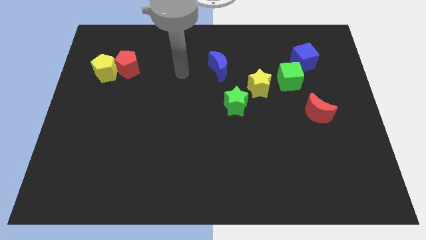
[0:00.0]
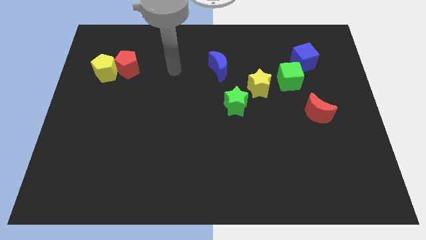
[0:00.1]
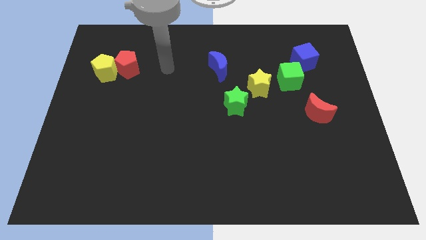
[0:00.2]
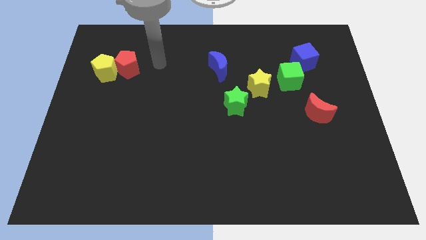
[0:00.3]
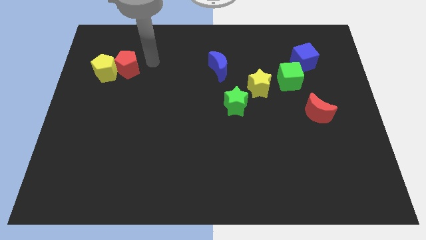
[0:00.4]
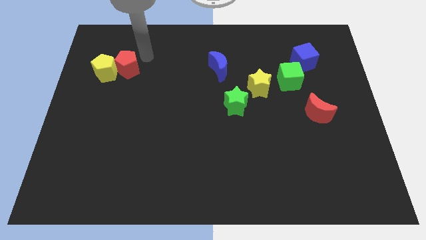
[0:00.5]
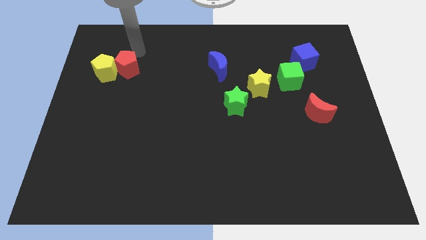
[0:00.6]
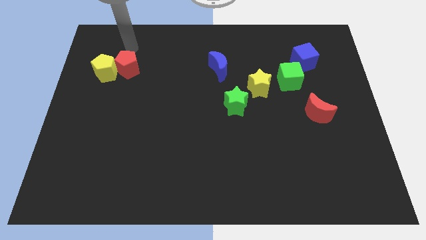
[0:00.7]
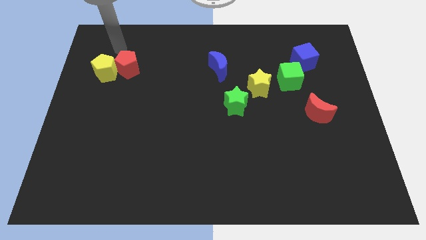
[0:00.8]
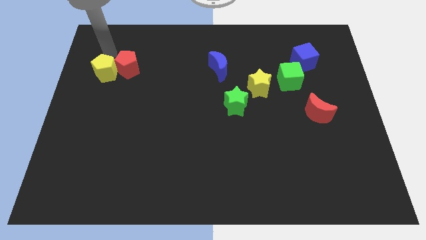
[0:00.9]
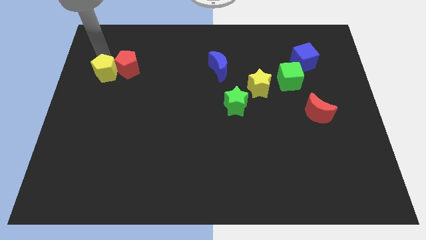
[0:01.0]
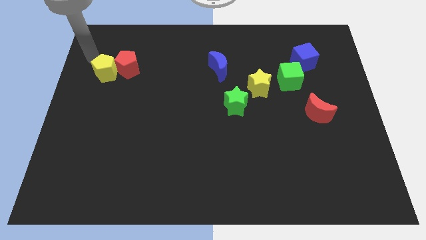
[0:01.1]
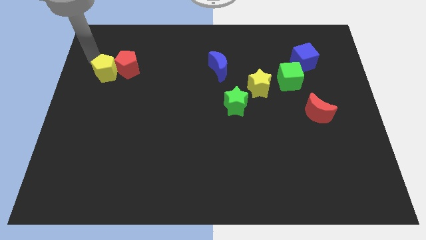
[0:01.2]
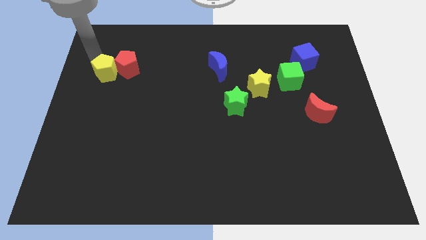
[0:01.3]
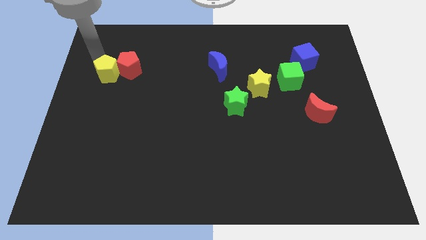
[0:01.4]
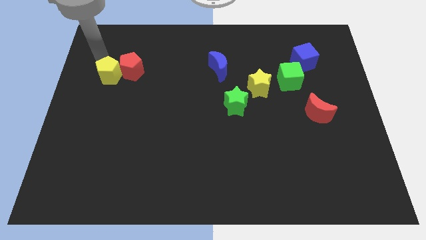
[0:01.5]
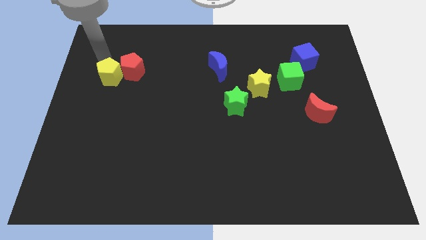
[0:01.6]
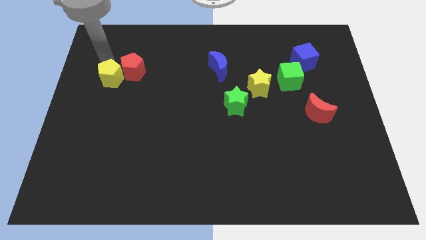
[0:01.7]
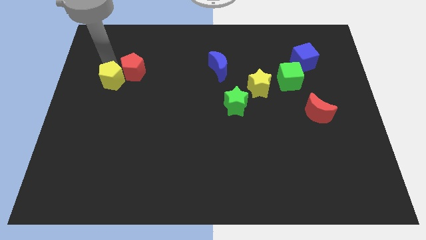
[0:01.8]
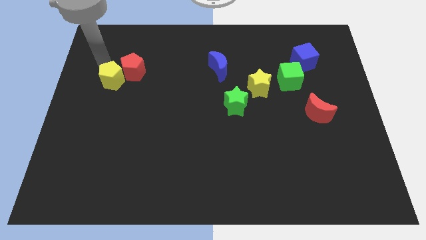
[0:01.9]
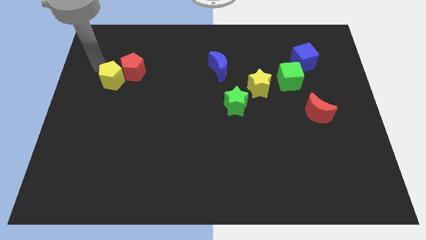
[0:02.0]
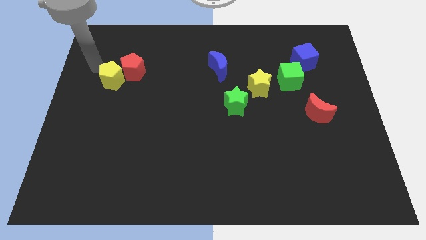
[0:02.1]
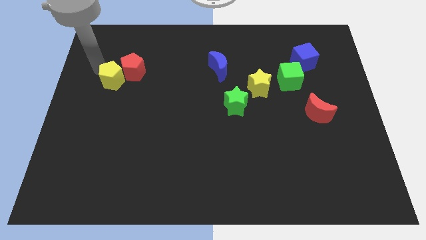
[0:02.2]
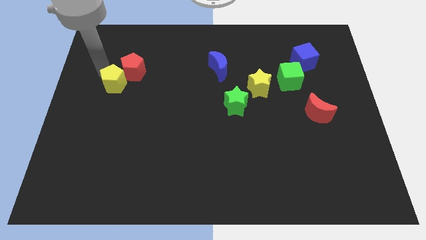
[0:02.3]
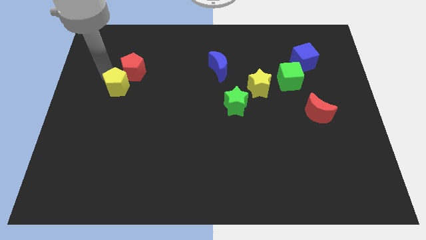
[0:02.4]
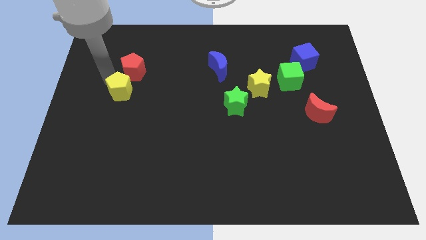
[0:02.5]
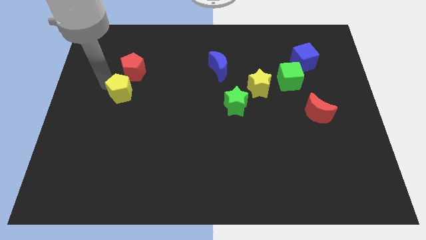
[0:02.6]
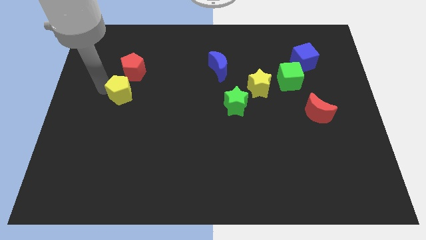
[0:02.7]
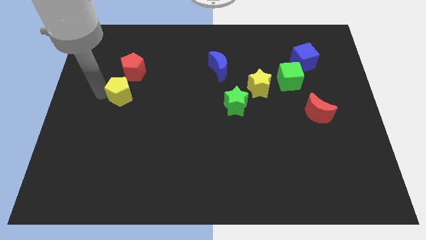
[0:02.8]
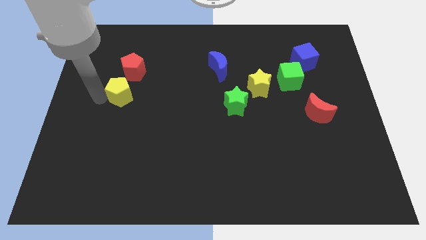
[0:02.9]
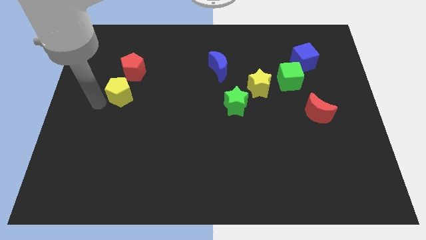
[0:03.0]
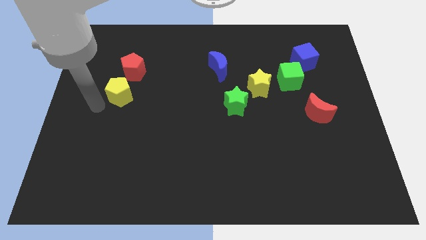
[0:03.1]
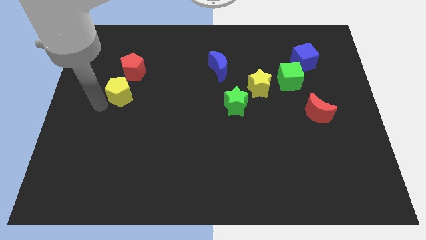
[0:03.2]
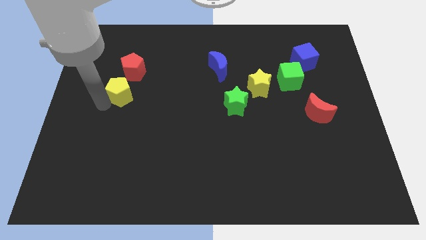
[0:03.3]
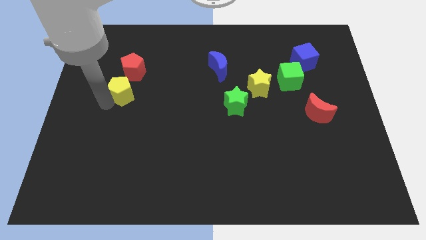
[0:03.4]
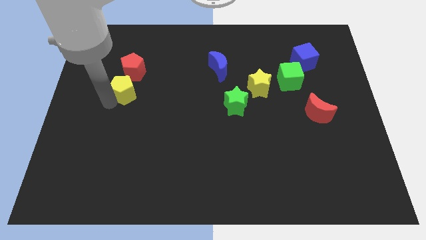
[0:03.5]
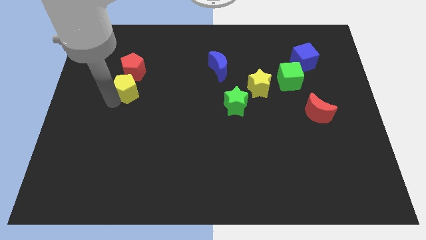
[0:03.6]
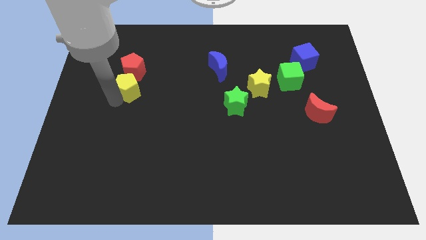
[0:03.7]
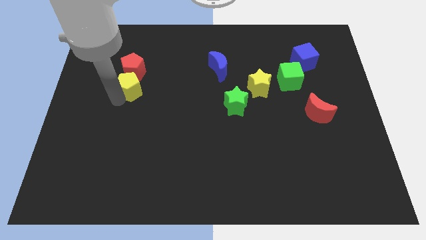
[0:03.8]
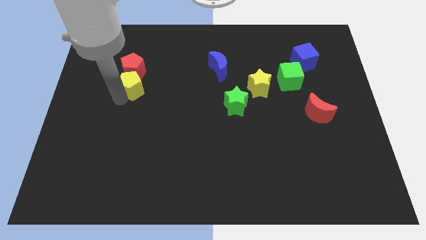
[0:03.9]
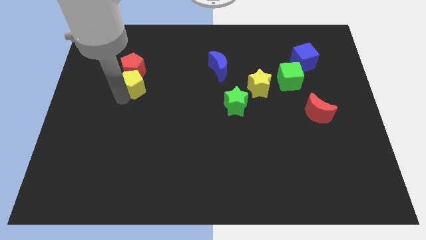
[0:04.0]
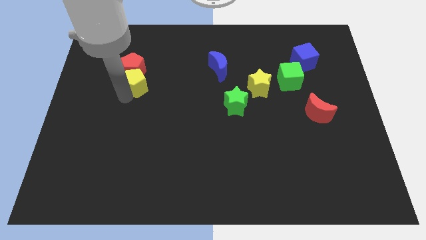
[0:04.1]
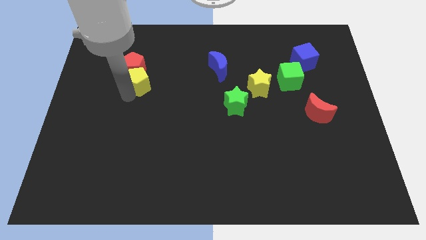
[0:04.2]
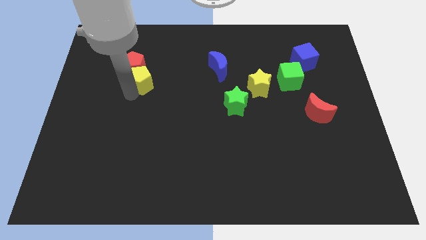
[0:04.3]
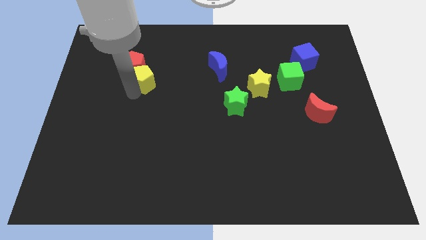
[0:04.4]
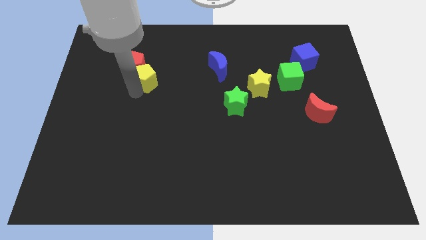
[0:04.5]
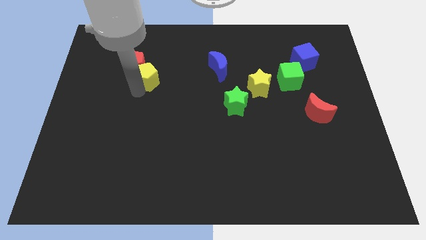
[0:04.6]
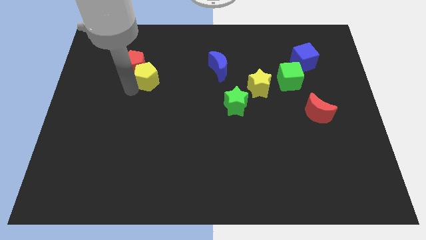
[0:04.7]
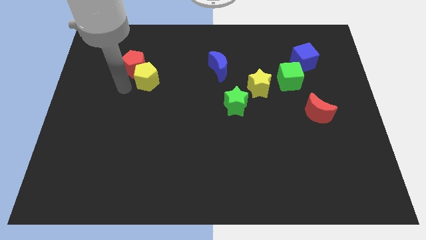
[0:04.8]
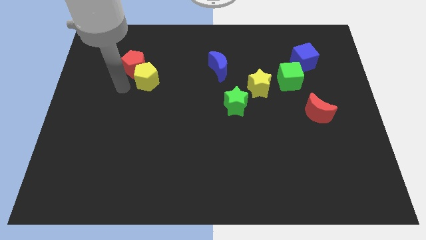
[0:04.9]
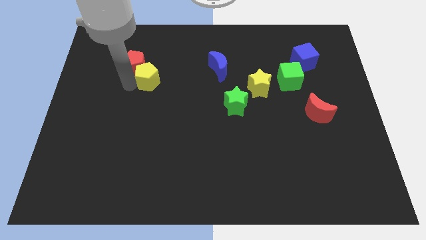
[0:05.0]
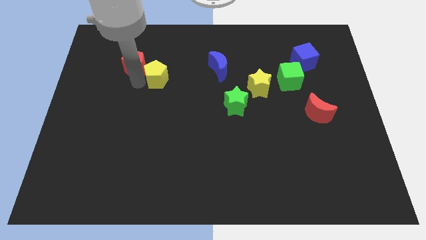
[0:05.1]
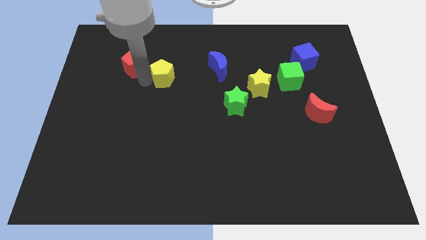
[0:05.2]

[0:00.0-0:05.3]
slide the yellow pentagon left of the blue moon

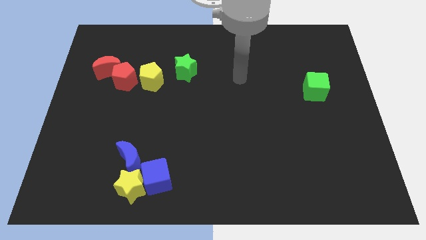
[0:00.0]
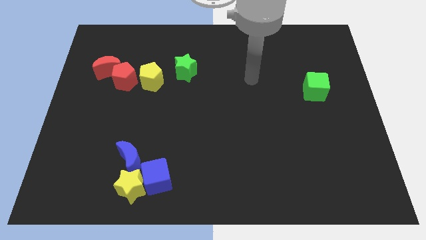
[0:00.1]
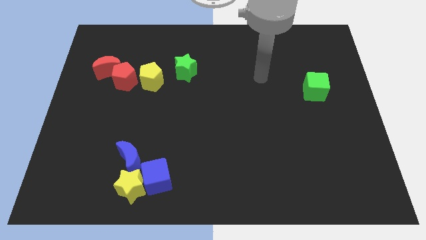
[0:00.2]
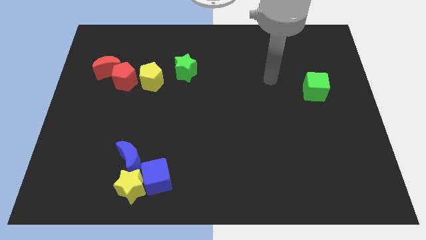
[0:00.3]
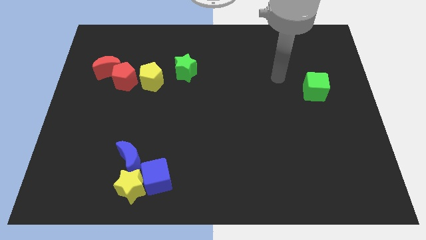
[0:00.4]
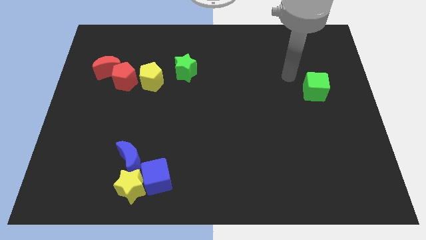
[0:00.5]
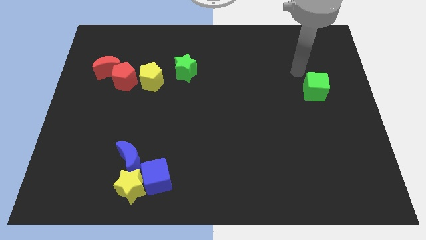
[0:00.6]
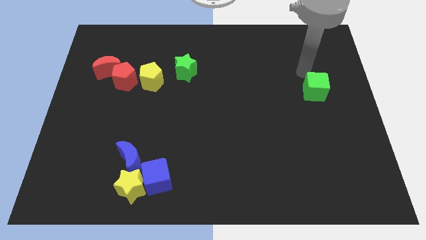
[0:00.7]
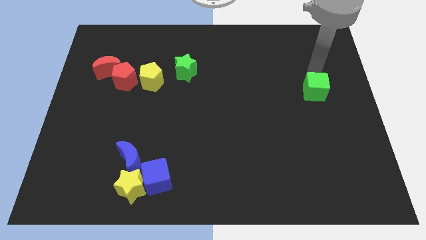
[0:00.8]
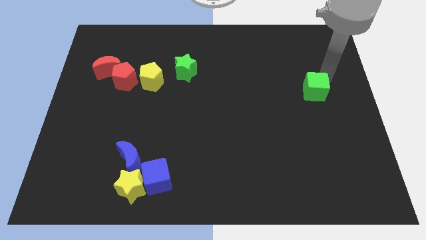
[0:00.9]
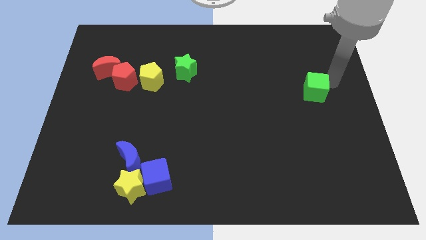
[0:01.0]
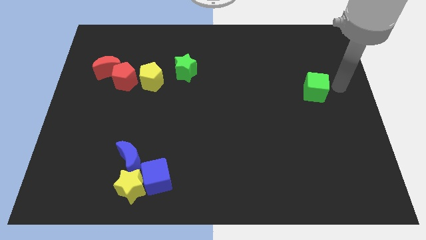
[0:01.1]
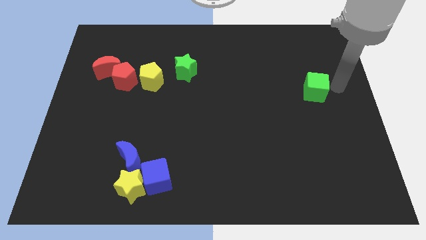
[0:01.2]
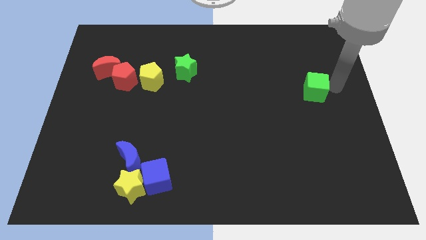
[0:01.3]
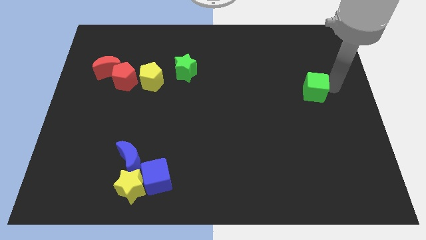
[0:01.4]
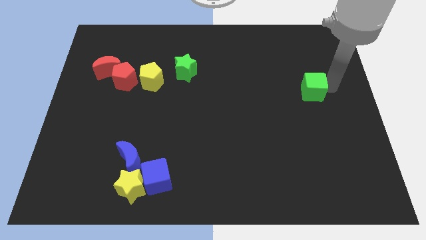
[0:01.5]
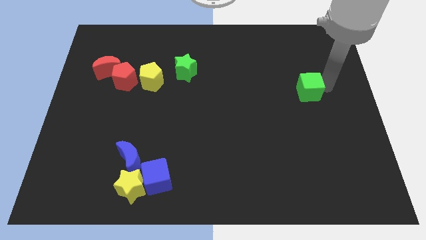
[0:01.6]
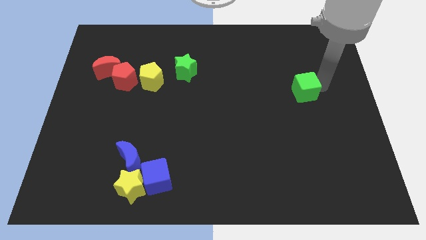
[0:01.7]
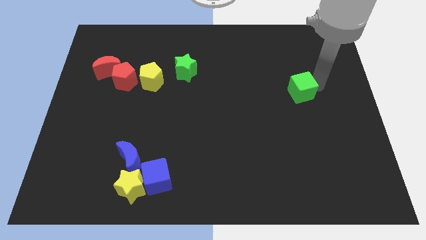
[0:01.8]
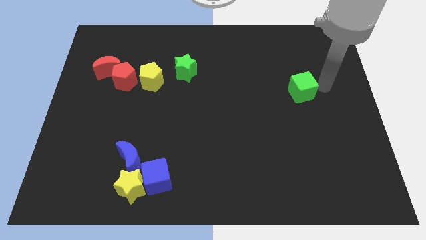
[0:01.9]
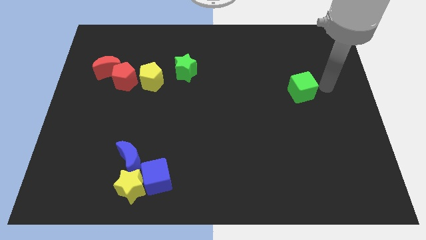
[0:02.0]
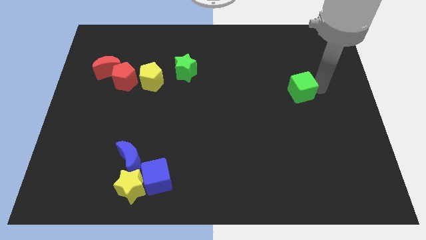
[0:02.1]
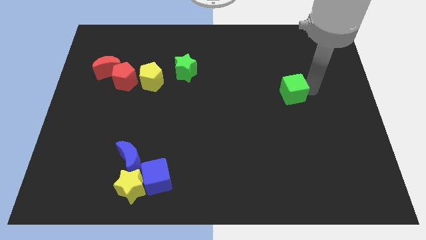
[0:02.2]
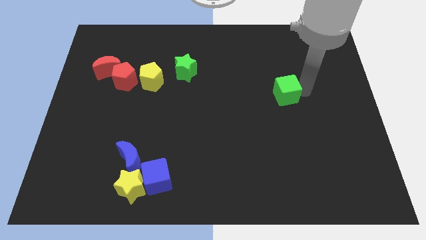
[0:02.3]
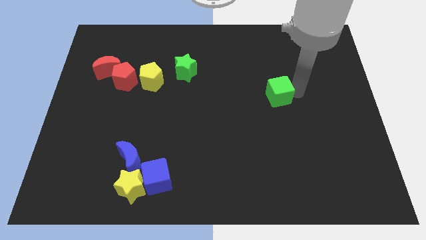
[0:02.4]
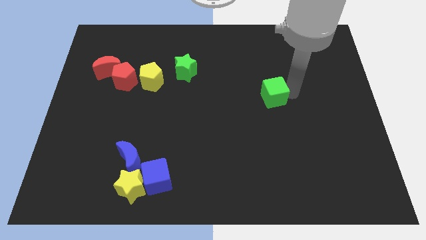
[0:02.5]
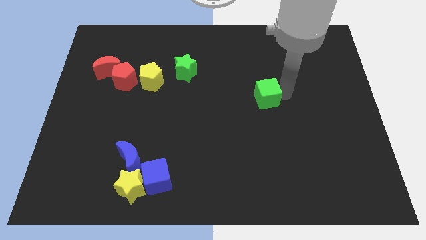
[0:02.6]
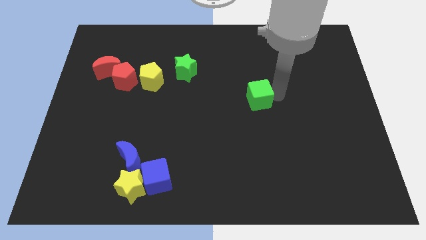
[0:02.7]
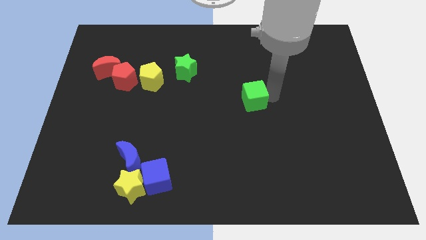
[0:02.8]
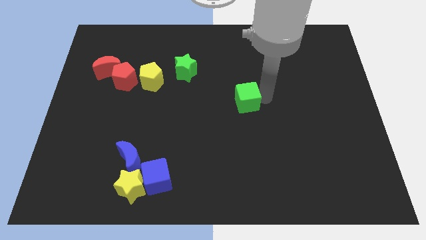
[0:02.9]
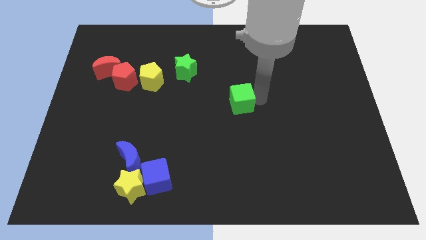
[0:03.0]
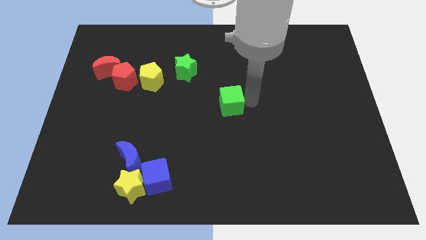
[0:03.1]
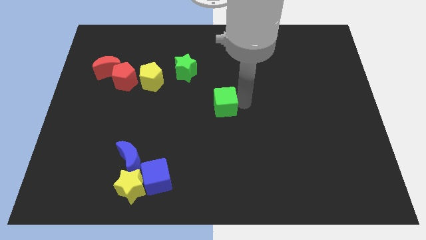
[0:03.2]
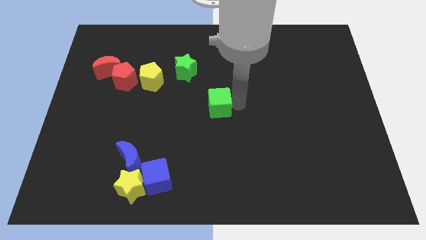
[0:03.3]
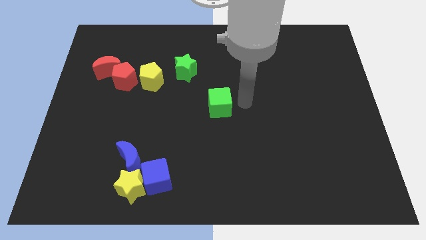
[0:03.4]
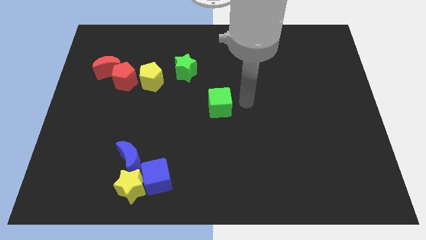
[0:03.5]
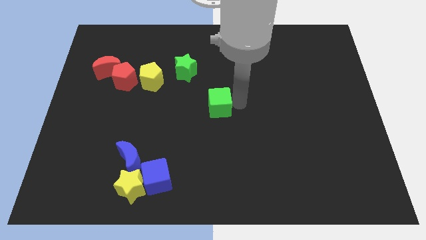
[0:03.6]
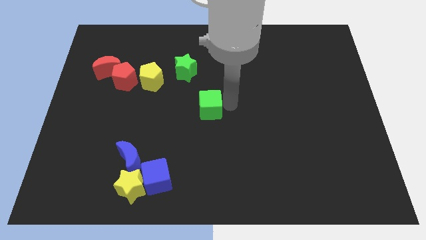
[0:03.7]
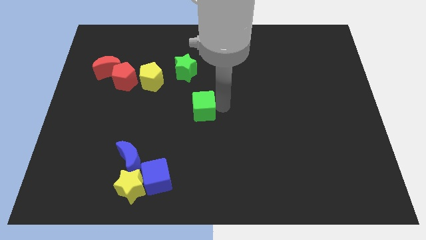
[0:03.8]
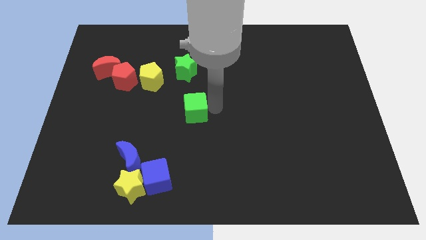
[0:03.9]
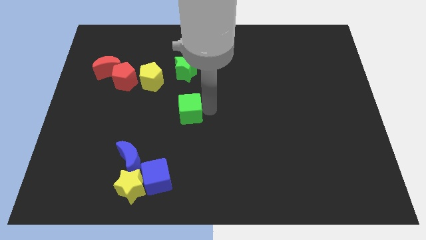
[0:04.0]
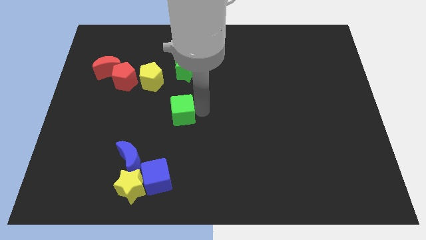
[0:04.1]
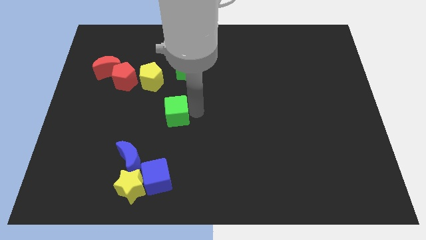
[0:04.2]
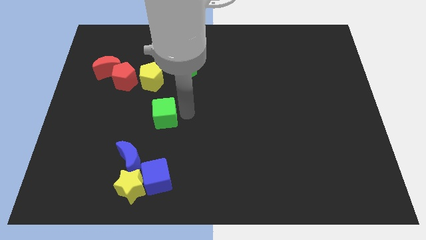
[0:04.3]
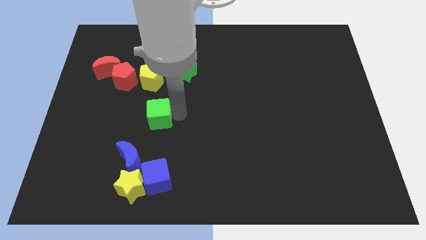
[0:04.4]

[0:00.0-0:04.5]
slide the green cube to the top side of the blue moon
